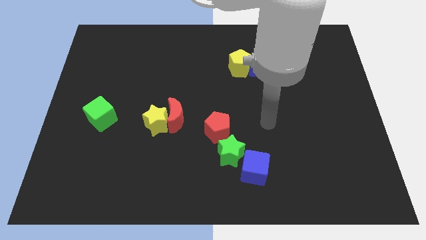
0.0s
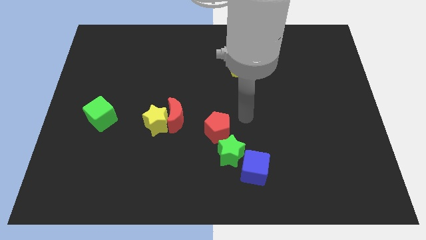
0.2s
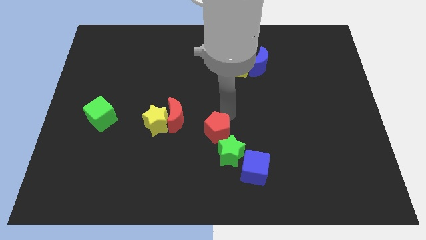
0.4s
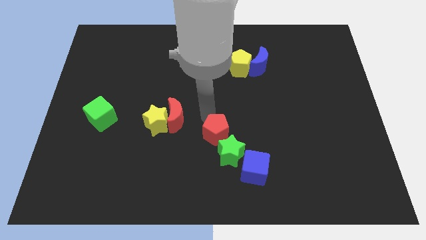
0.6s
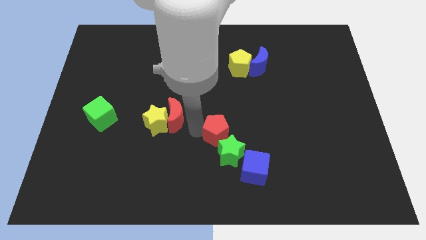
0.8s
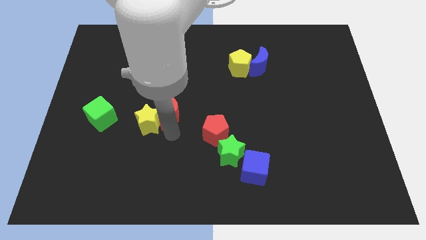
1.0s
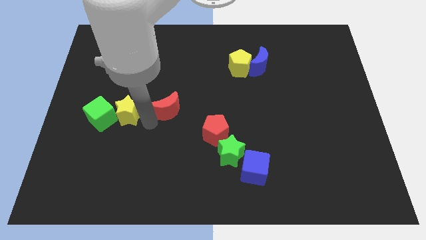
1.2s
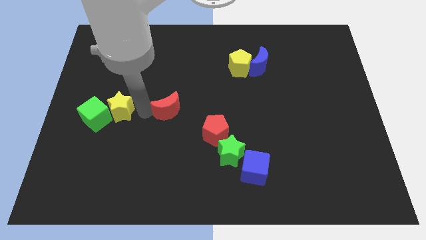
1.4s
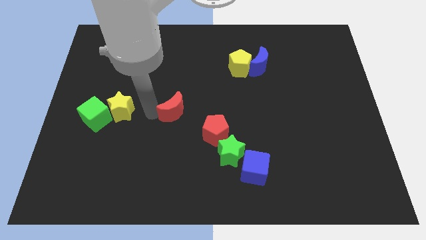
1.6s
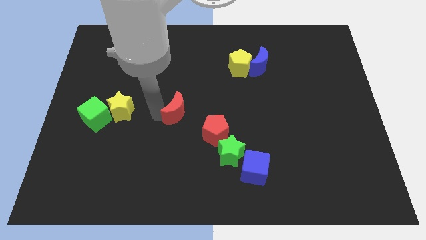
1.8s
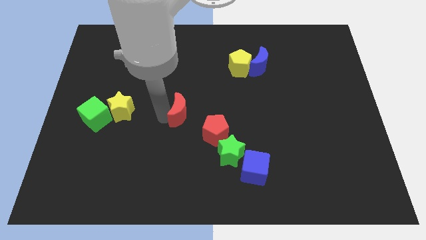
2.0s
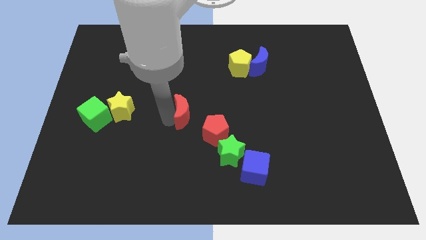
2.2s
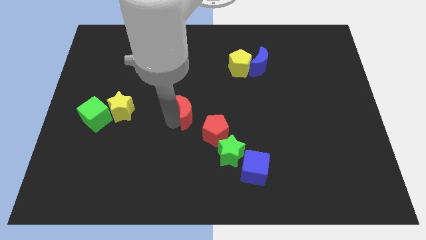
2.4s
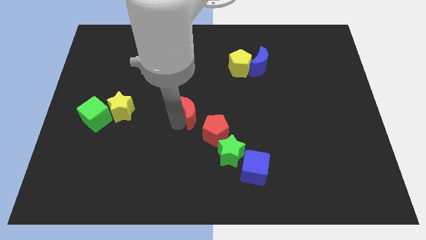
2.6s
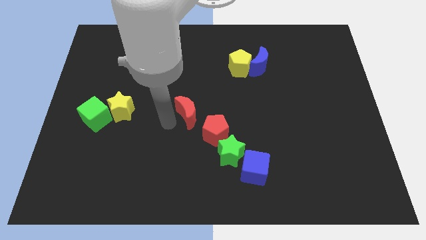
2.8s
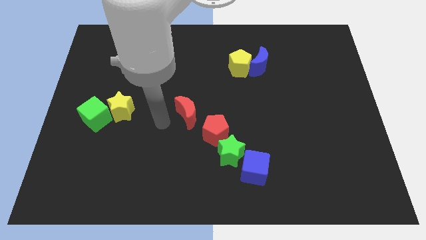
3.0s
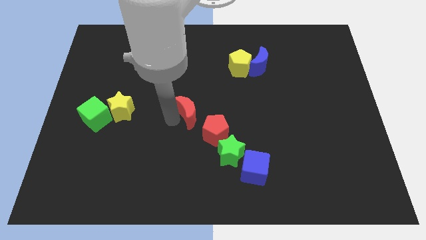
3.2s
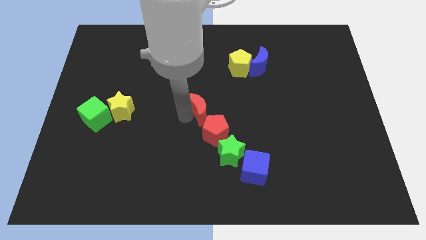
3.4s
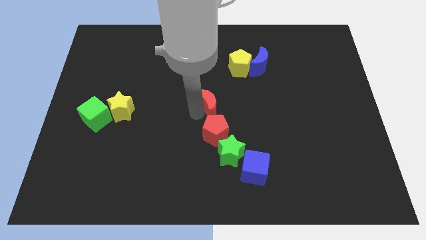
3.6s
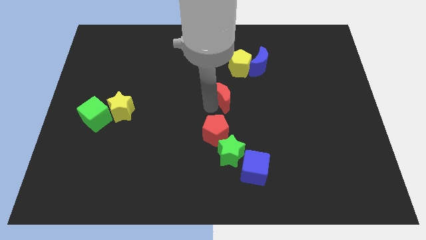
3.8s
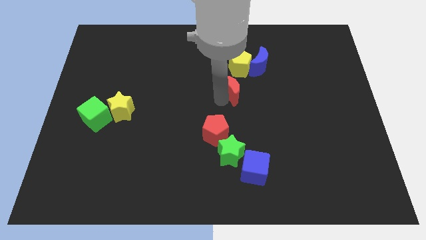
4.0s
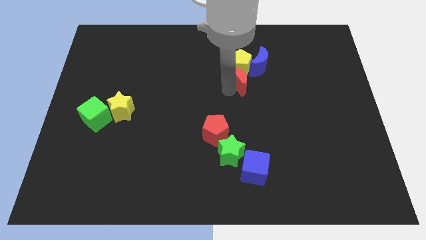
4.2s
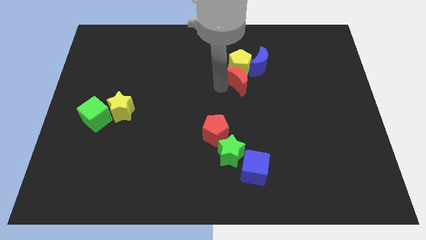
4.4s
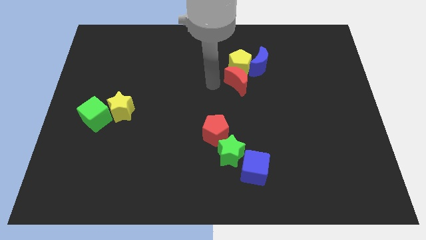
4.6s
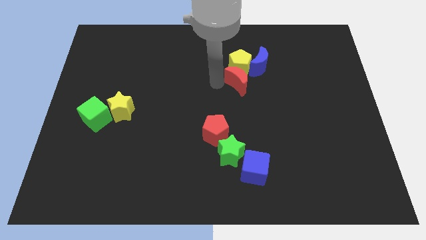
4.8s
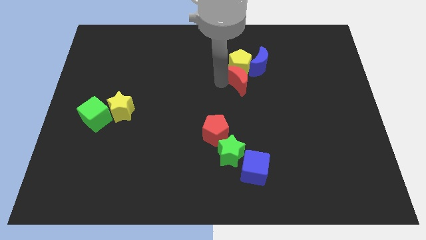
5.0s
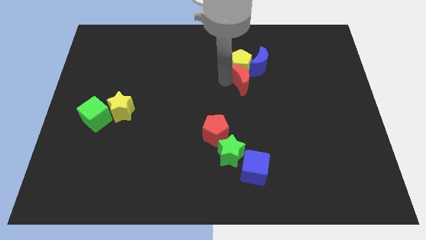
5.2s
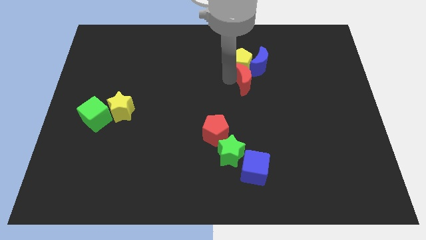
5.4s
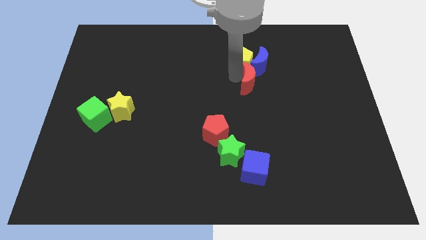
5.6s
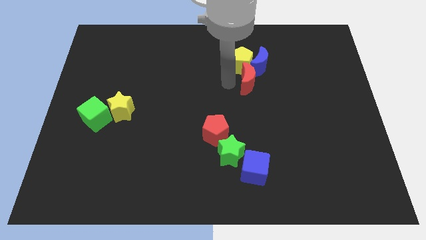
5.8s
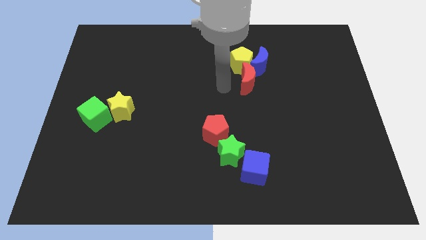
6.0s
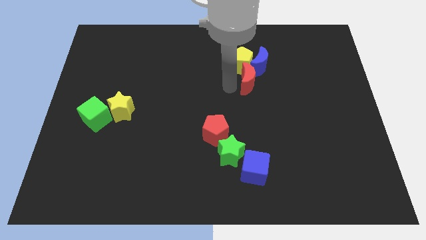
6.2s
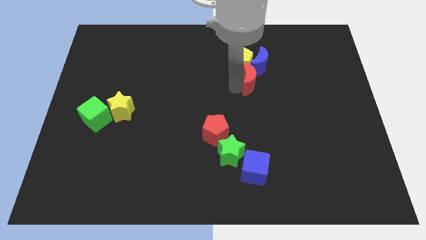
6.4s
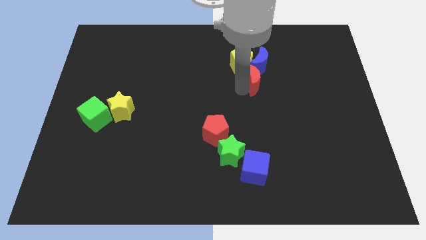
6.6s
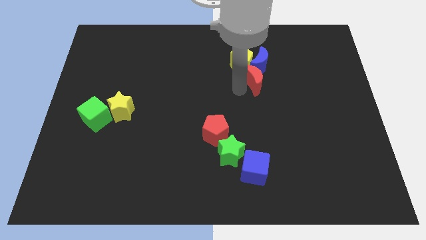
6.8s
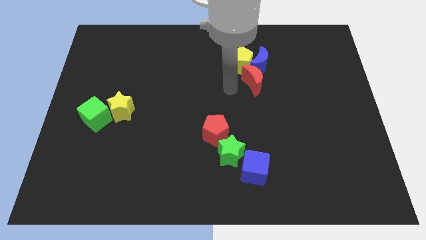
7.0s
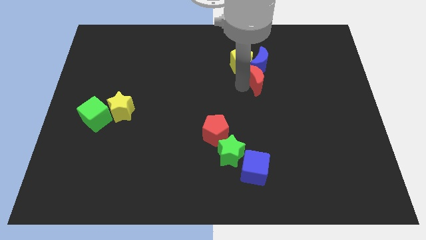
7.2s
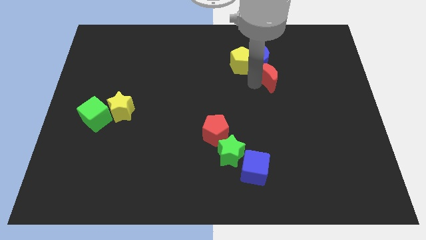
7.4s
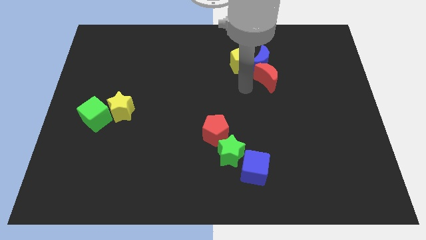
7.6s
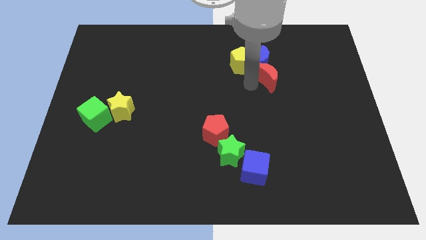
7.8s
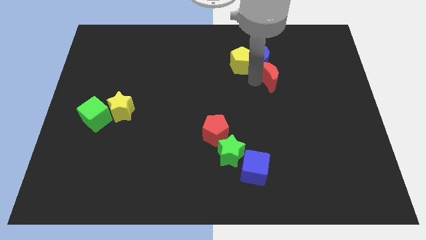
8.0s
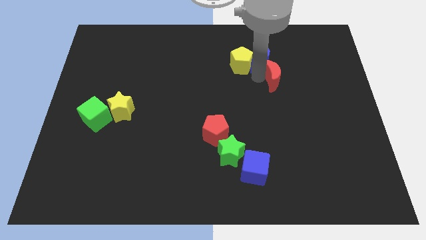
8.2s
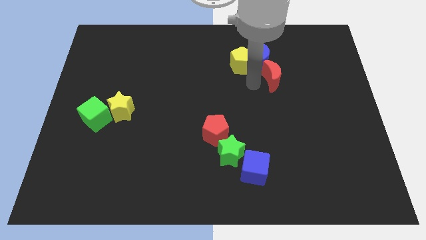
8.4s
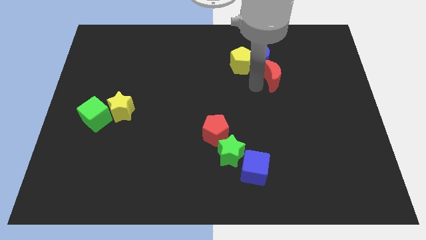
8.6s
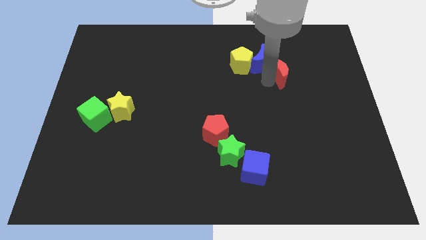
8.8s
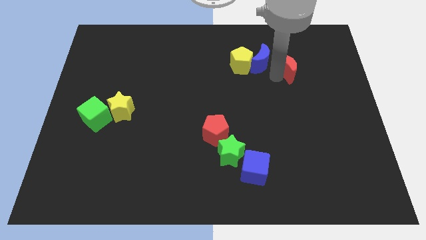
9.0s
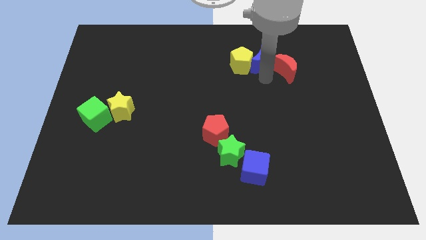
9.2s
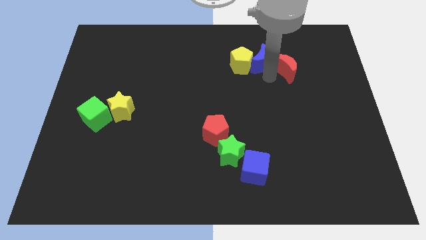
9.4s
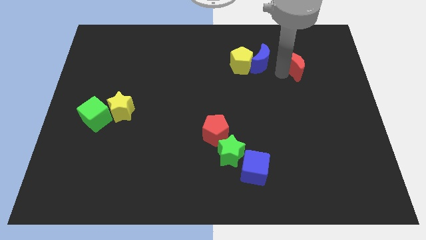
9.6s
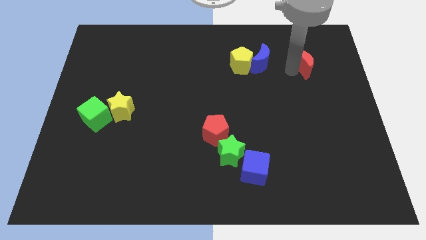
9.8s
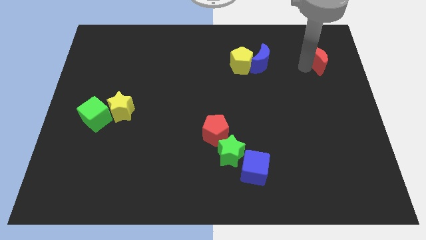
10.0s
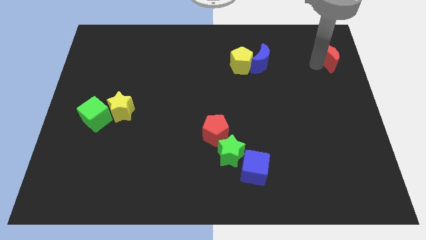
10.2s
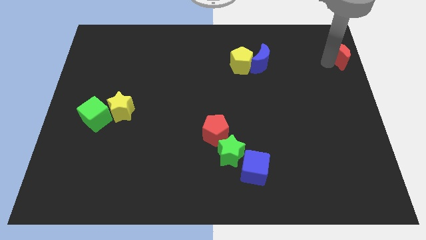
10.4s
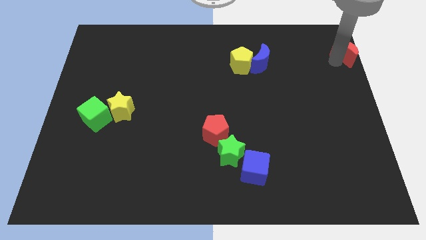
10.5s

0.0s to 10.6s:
move the red moon to the top right corner

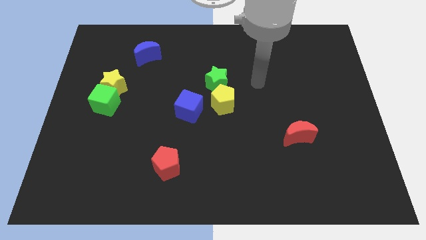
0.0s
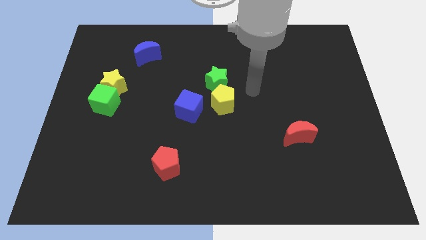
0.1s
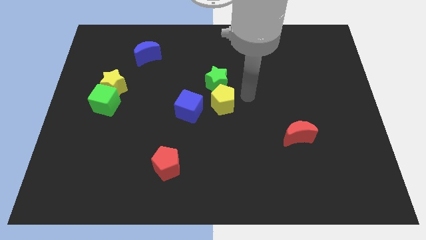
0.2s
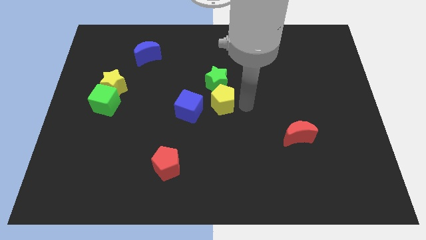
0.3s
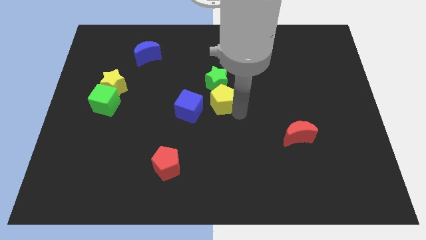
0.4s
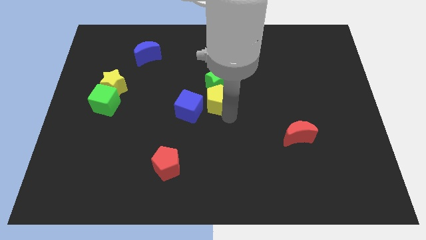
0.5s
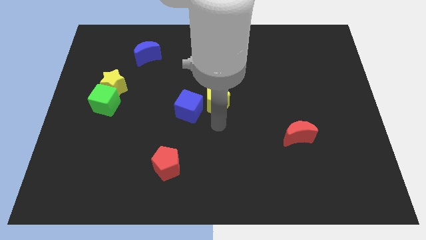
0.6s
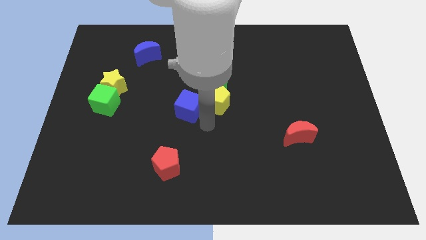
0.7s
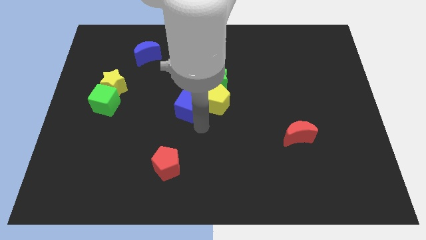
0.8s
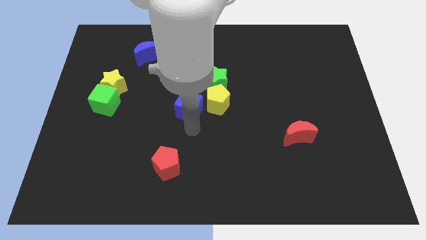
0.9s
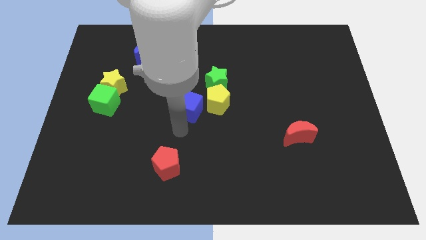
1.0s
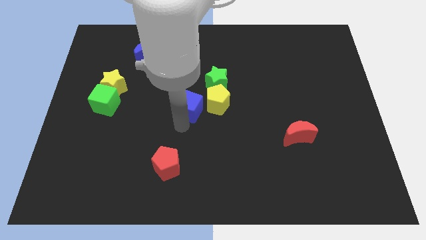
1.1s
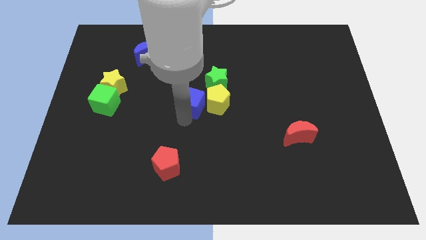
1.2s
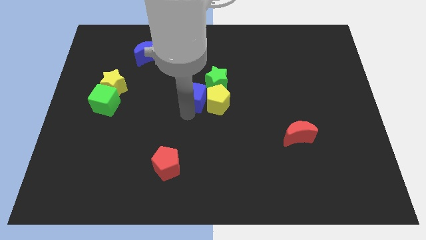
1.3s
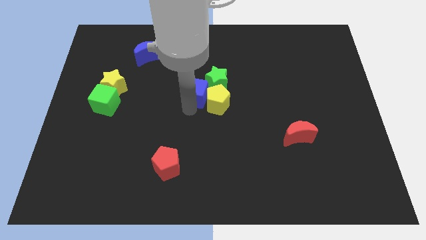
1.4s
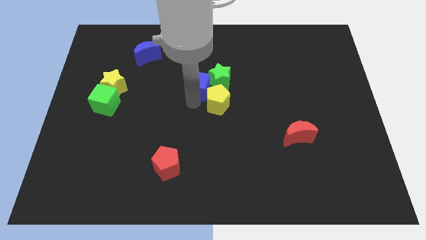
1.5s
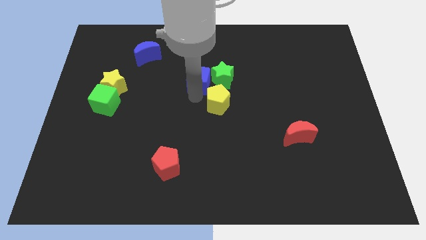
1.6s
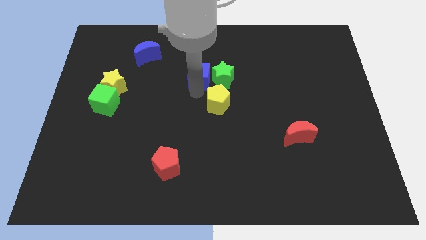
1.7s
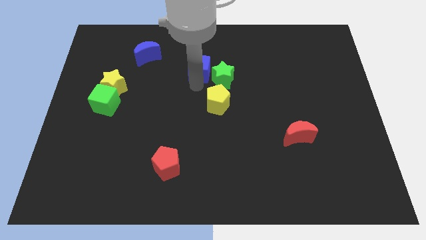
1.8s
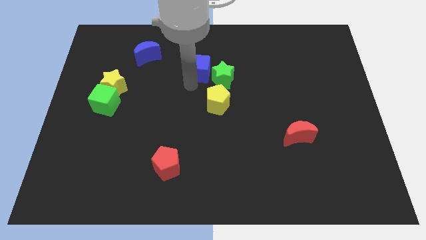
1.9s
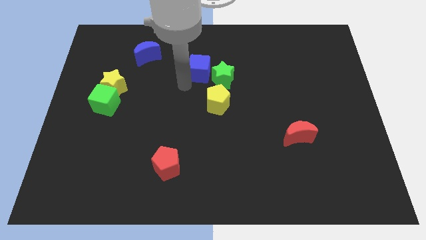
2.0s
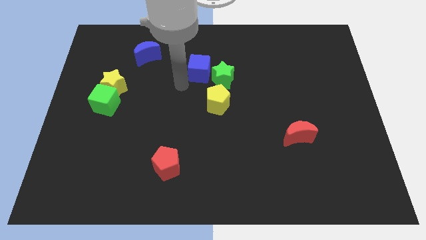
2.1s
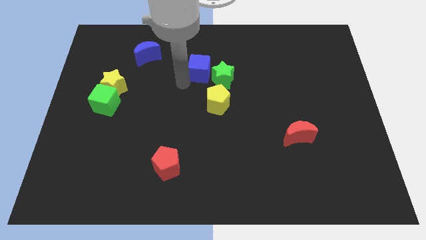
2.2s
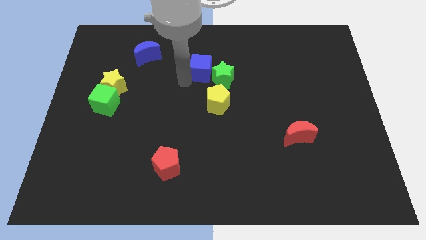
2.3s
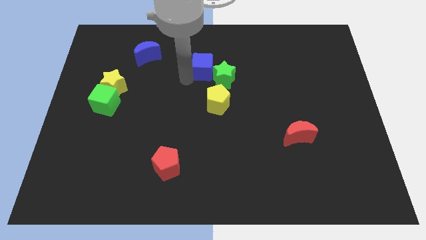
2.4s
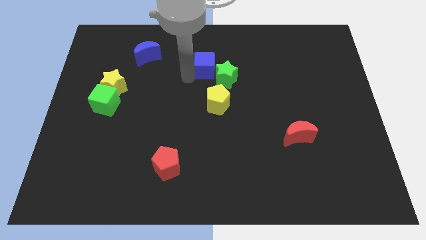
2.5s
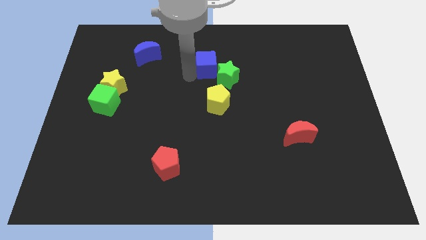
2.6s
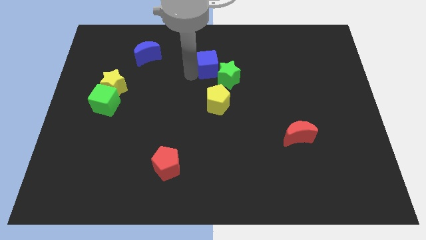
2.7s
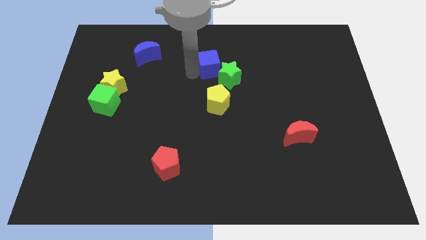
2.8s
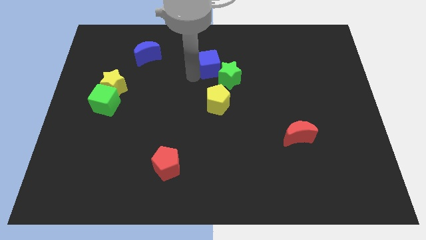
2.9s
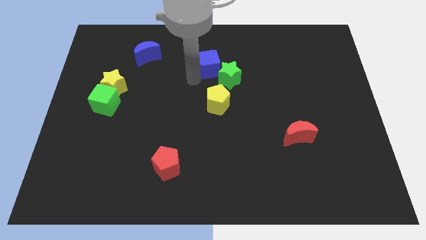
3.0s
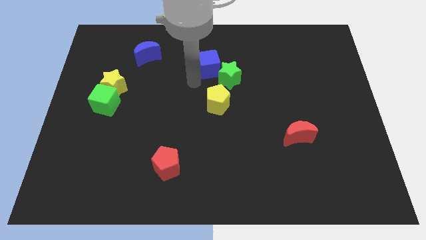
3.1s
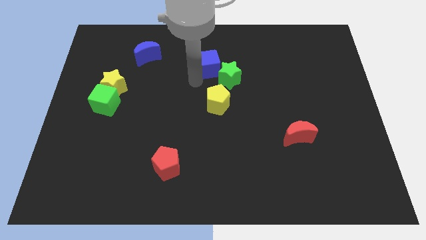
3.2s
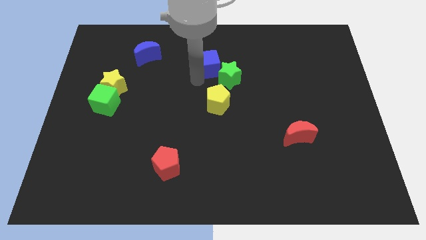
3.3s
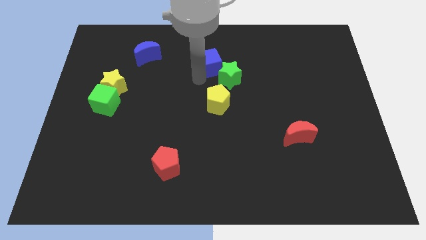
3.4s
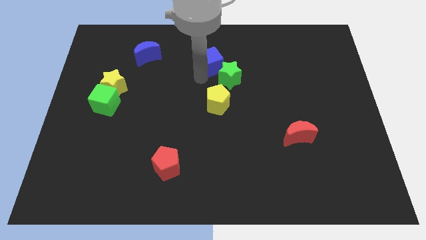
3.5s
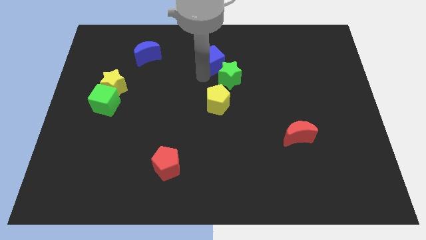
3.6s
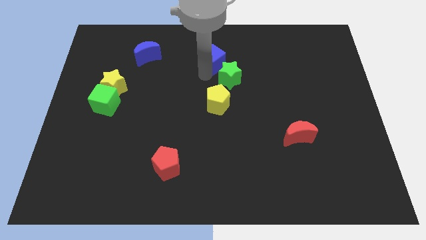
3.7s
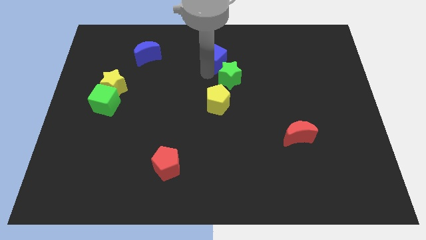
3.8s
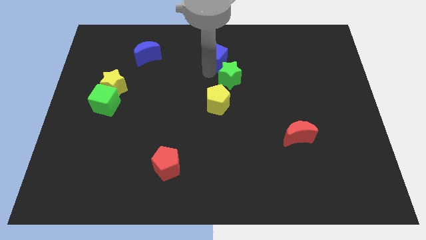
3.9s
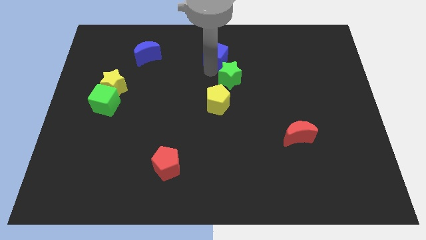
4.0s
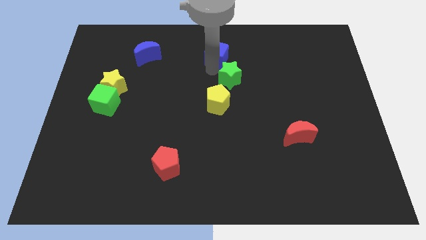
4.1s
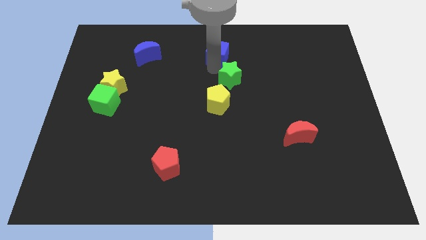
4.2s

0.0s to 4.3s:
put the blue cube to the top
